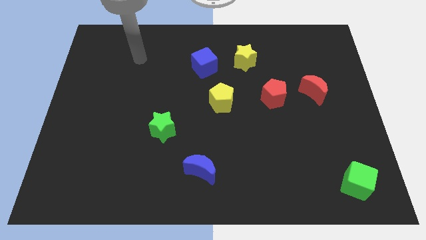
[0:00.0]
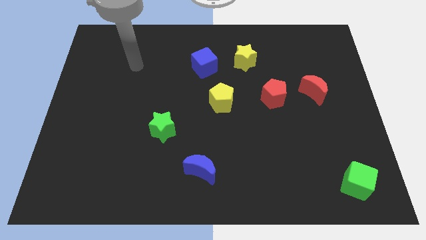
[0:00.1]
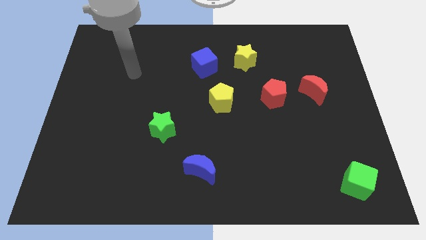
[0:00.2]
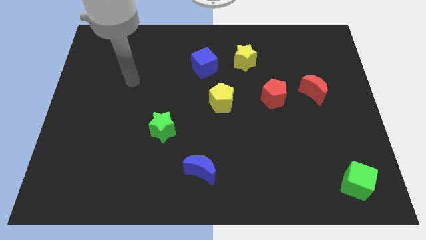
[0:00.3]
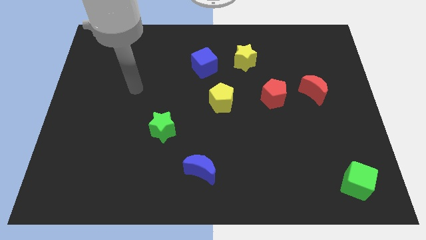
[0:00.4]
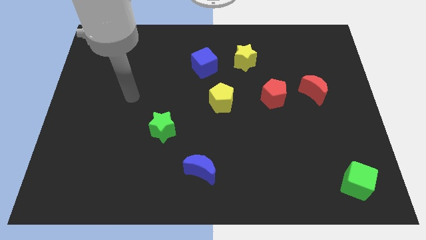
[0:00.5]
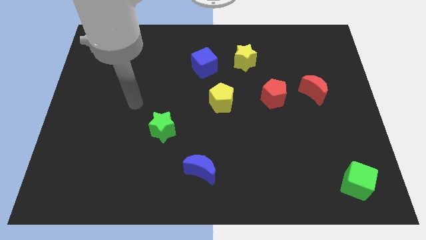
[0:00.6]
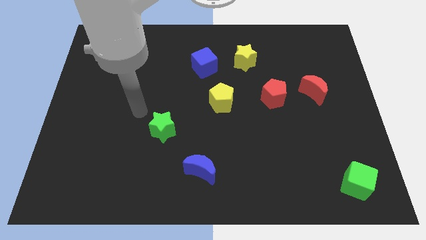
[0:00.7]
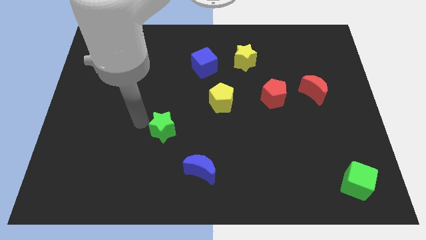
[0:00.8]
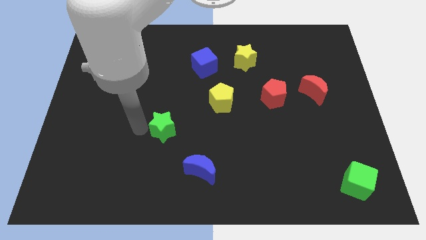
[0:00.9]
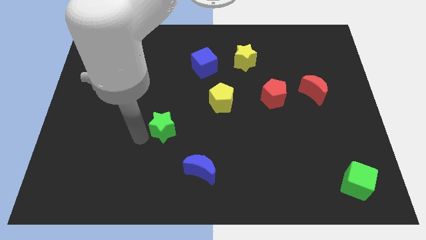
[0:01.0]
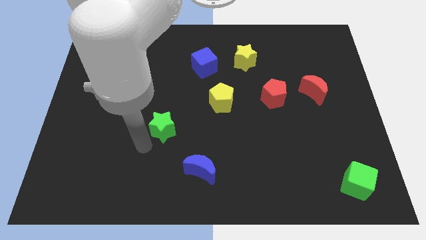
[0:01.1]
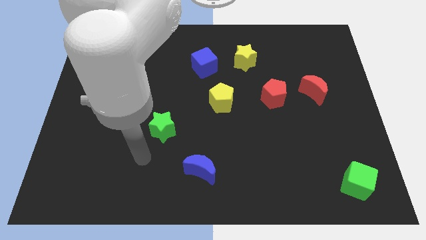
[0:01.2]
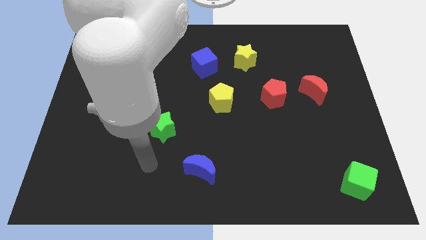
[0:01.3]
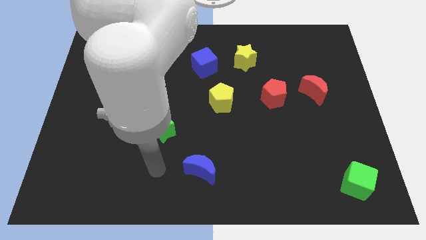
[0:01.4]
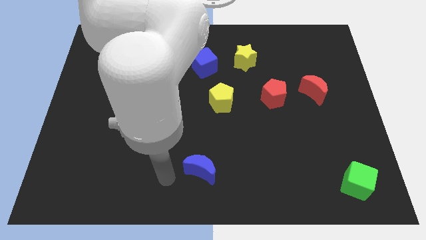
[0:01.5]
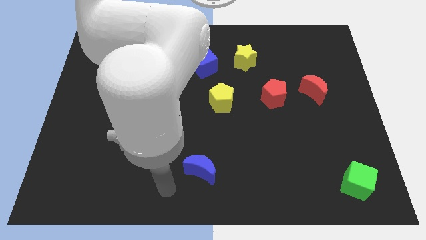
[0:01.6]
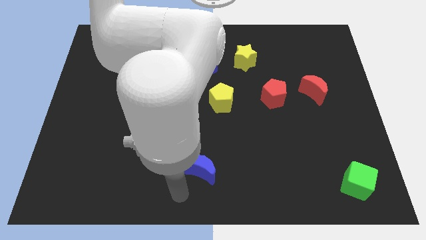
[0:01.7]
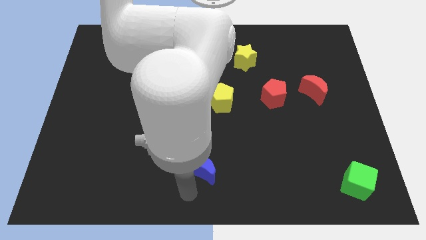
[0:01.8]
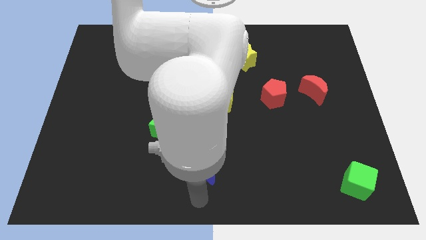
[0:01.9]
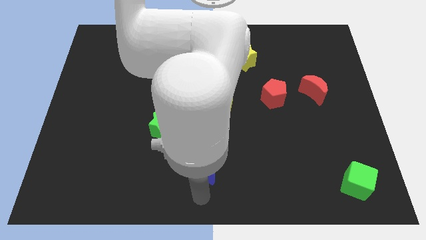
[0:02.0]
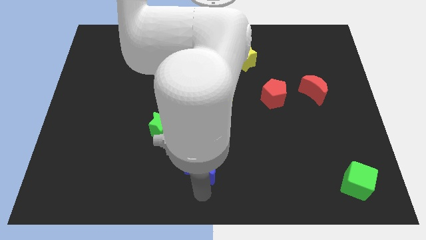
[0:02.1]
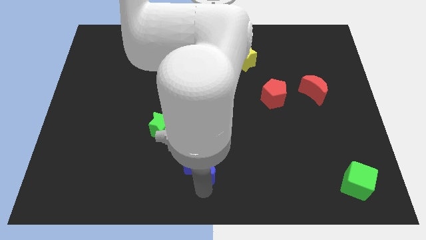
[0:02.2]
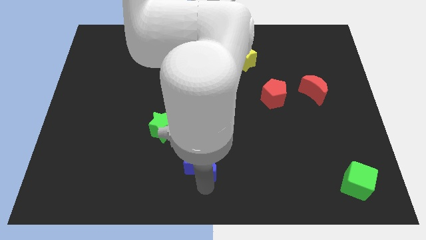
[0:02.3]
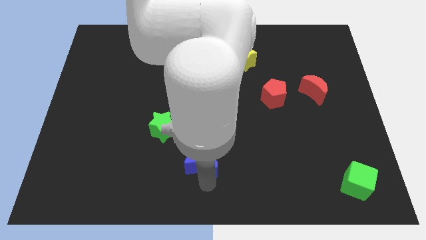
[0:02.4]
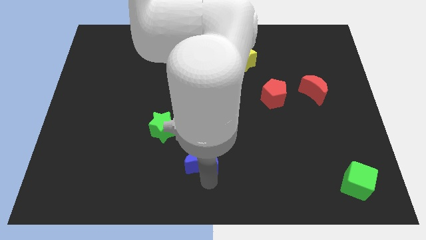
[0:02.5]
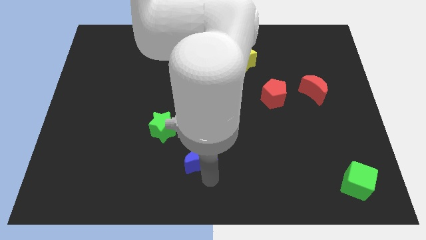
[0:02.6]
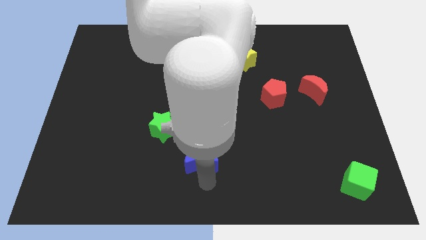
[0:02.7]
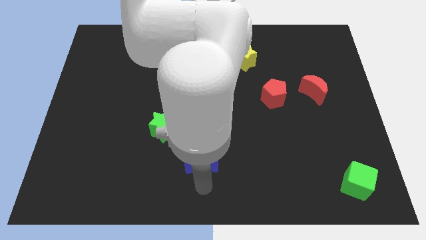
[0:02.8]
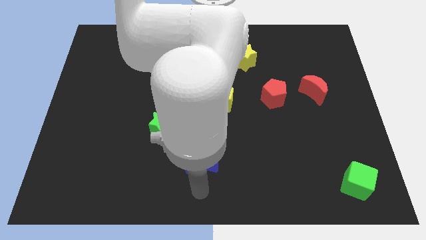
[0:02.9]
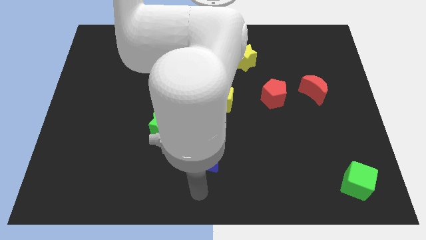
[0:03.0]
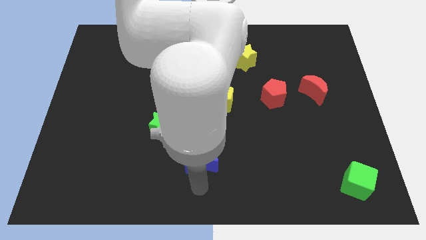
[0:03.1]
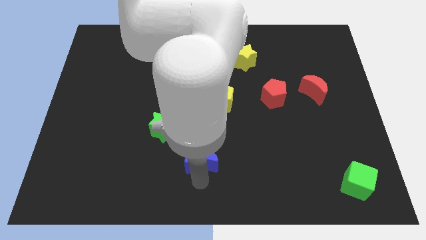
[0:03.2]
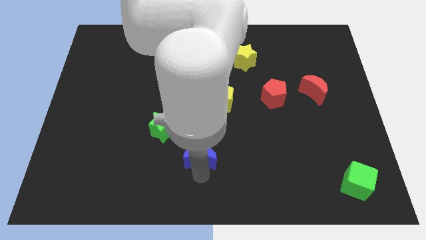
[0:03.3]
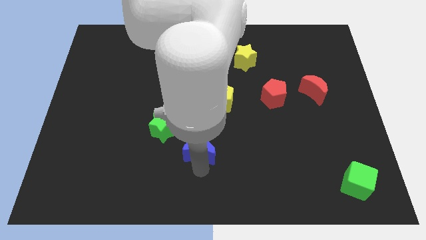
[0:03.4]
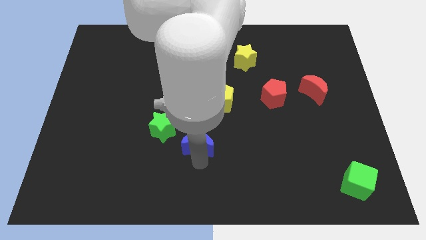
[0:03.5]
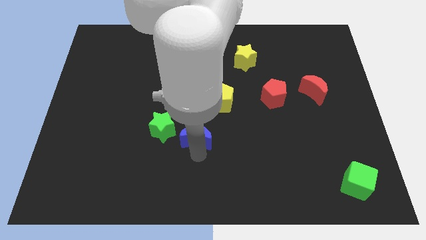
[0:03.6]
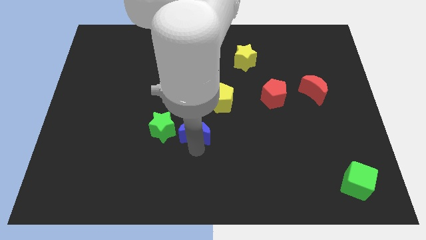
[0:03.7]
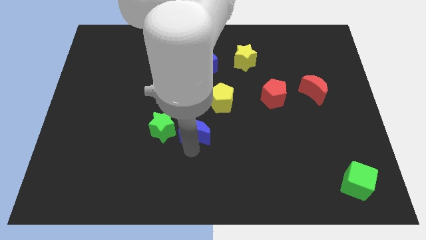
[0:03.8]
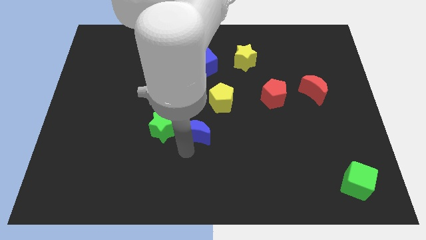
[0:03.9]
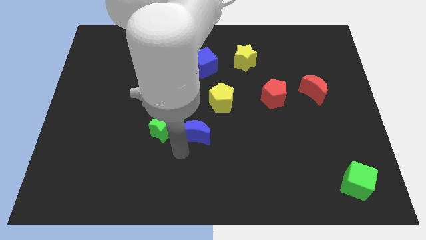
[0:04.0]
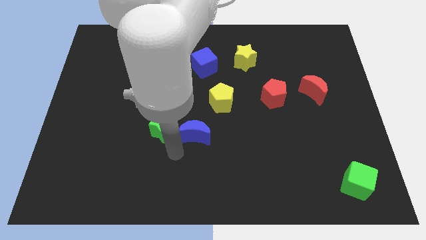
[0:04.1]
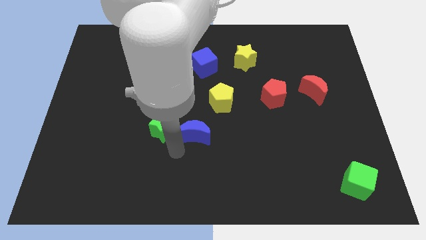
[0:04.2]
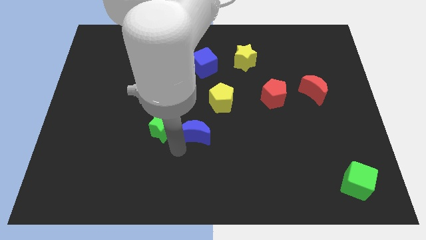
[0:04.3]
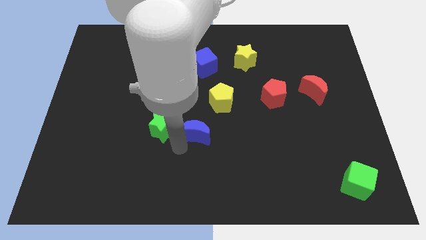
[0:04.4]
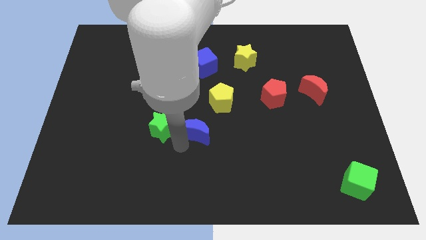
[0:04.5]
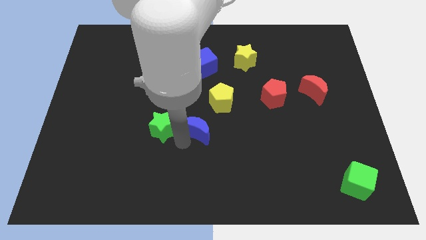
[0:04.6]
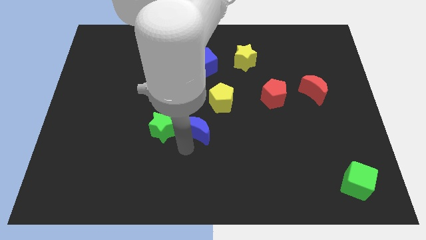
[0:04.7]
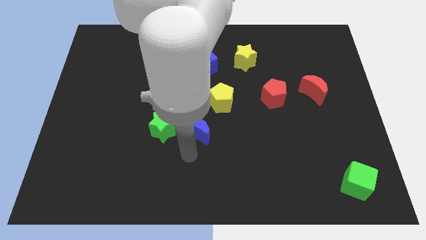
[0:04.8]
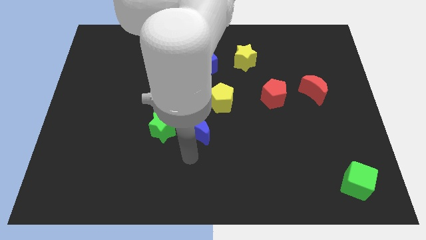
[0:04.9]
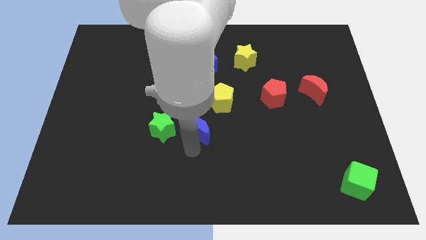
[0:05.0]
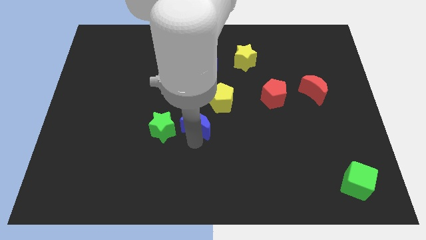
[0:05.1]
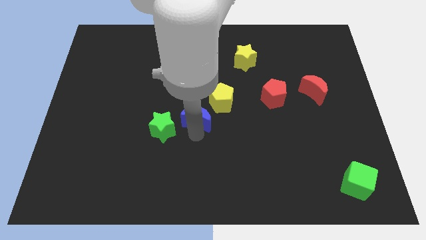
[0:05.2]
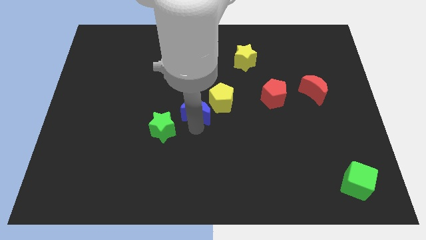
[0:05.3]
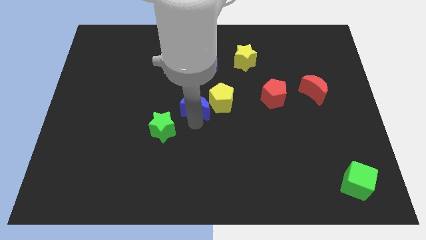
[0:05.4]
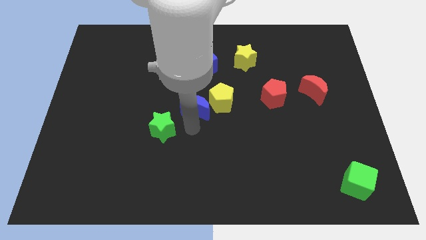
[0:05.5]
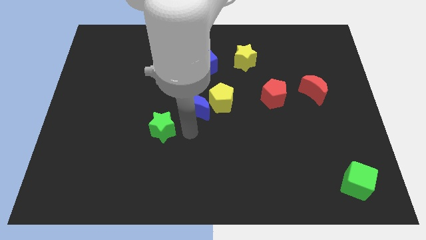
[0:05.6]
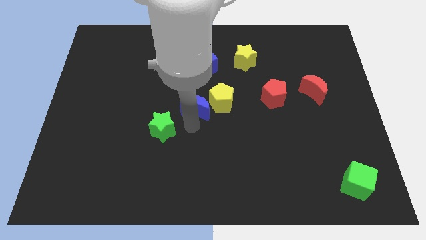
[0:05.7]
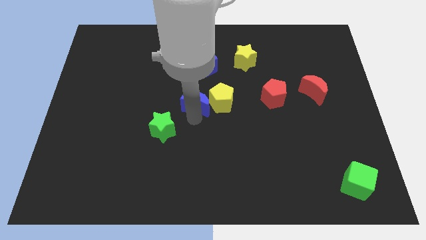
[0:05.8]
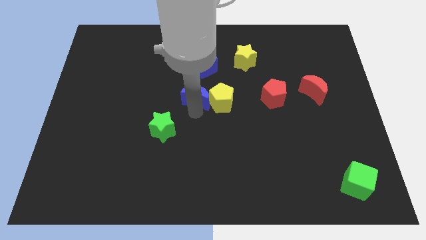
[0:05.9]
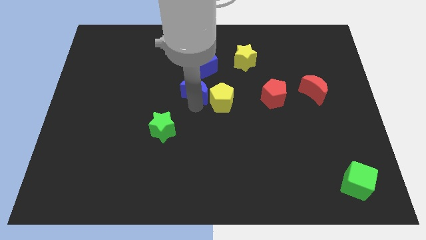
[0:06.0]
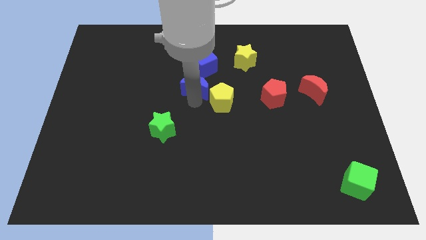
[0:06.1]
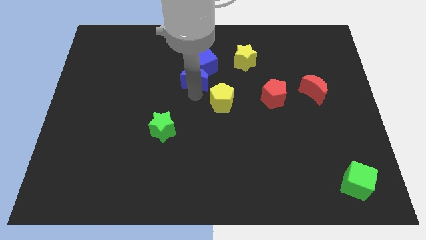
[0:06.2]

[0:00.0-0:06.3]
push the blue moon next to the blue cube

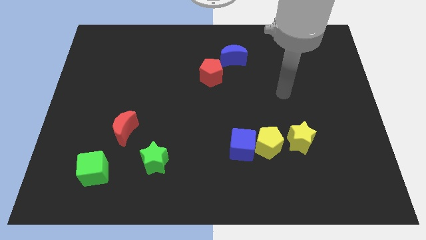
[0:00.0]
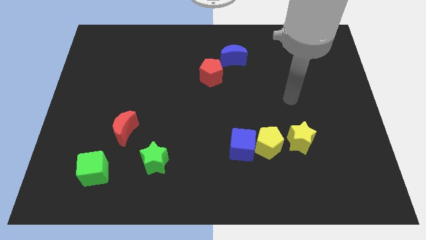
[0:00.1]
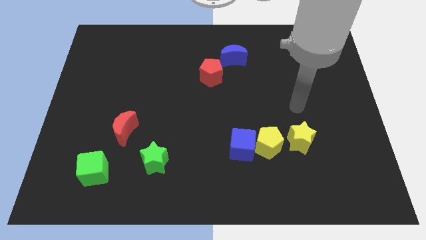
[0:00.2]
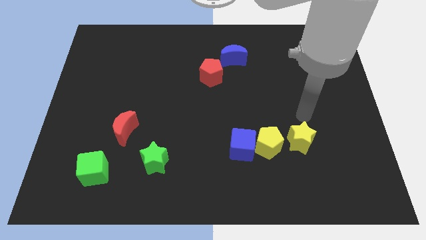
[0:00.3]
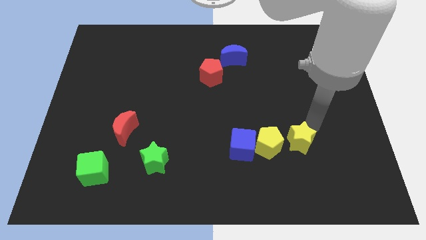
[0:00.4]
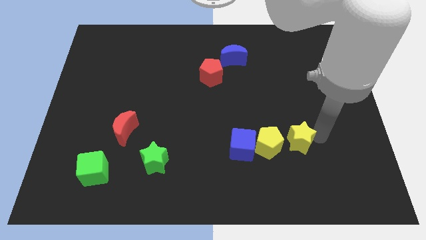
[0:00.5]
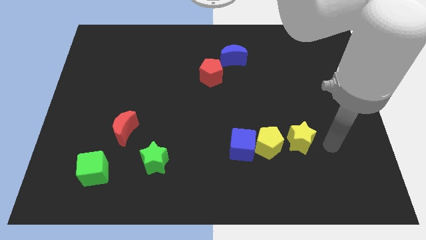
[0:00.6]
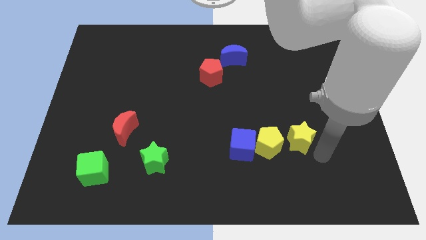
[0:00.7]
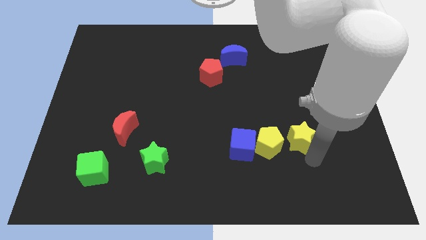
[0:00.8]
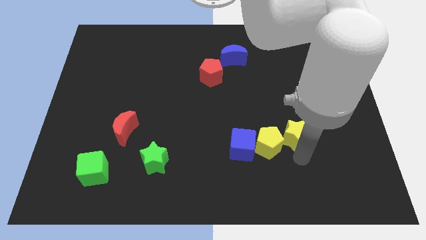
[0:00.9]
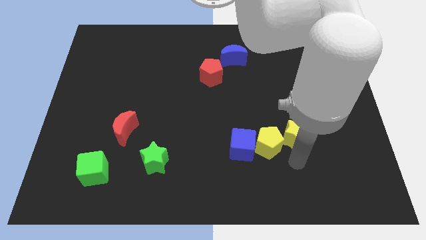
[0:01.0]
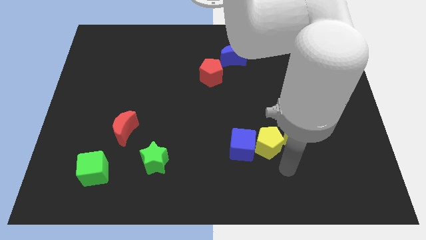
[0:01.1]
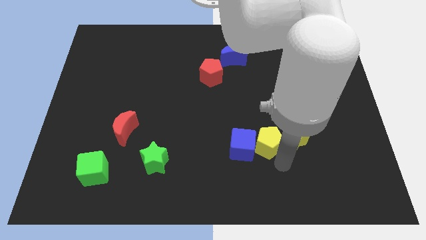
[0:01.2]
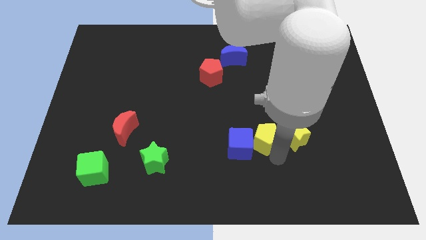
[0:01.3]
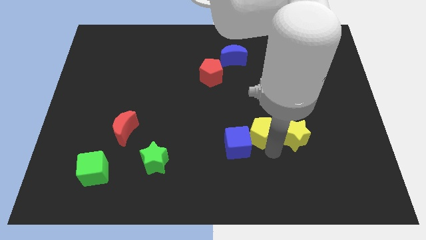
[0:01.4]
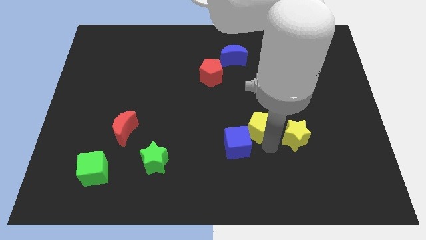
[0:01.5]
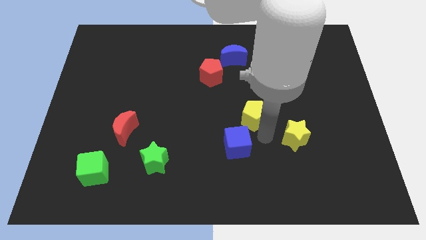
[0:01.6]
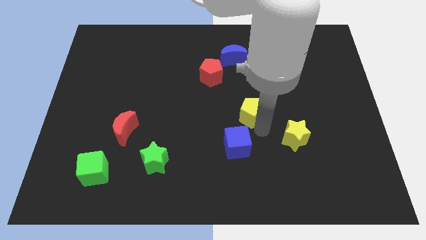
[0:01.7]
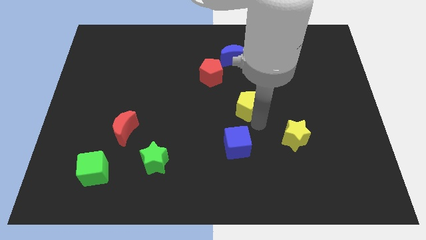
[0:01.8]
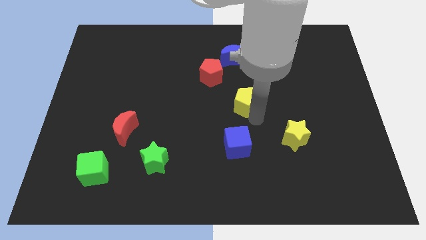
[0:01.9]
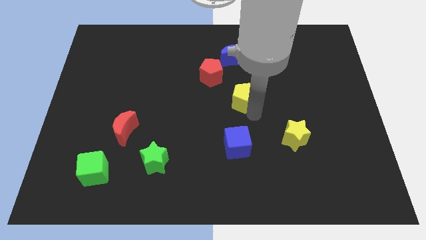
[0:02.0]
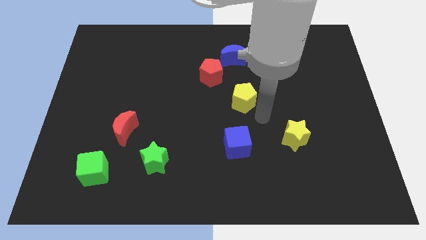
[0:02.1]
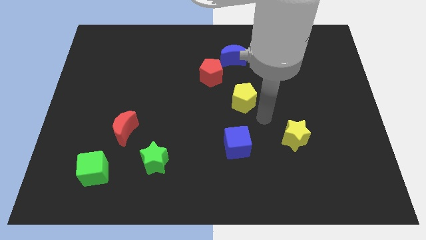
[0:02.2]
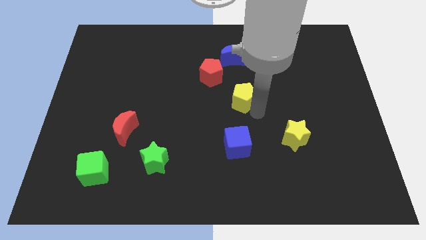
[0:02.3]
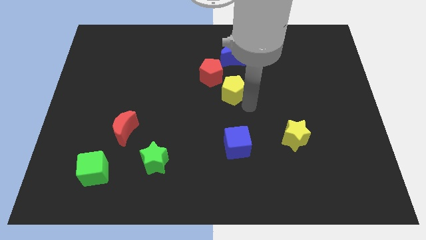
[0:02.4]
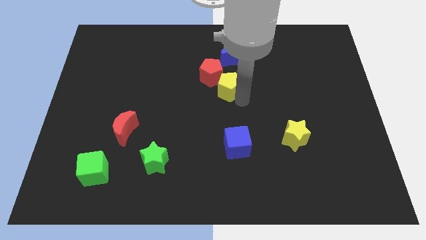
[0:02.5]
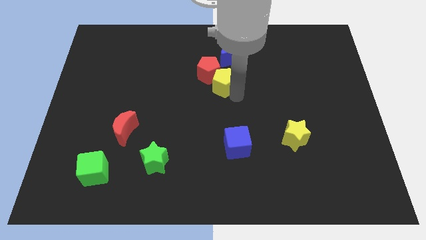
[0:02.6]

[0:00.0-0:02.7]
slide the yellow pentagon close to the red pentagon
